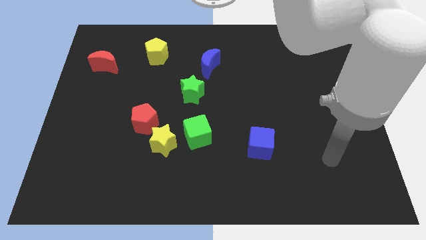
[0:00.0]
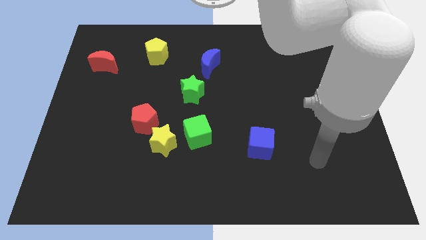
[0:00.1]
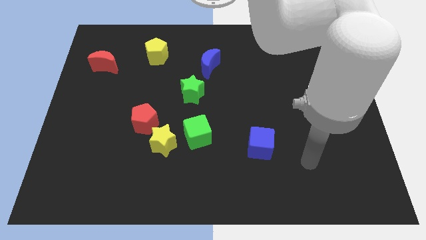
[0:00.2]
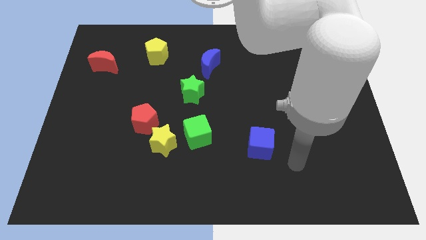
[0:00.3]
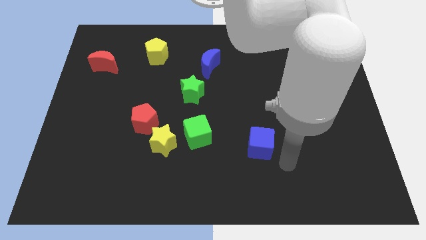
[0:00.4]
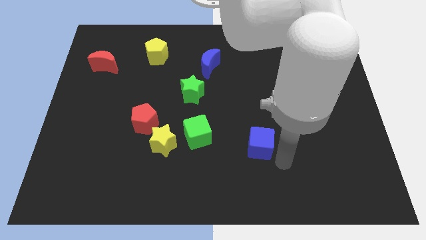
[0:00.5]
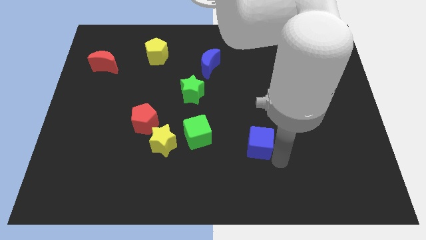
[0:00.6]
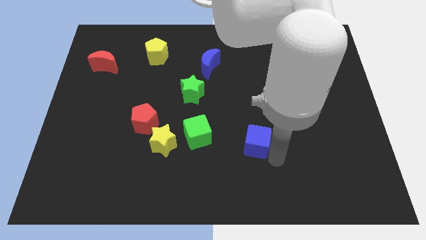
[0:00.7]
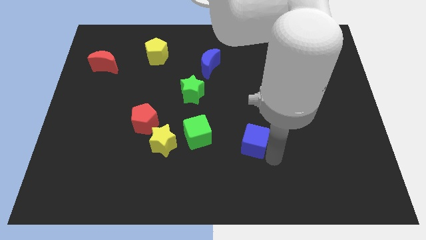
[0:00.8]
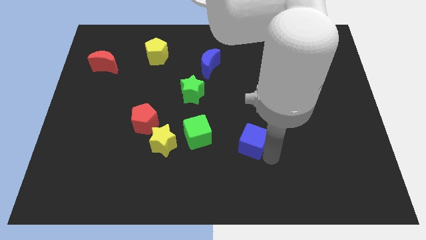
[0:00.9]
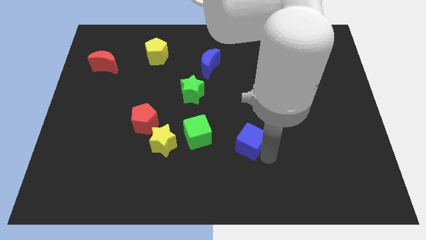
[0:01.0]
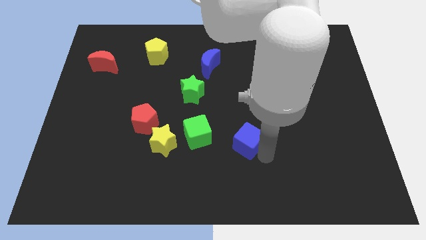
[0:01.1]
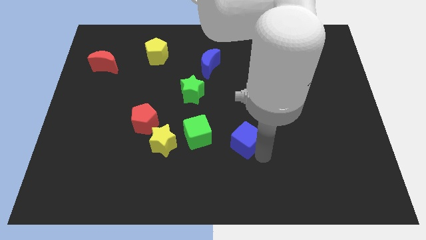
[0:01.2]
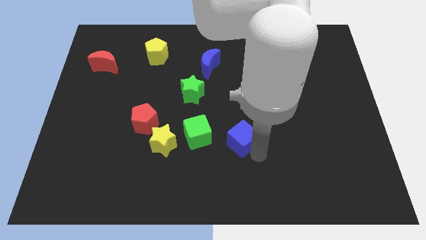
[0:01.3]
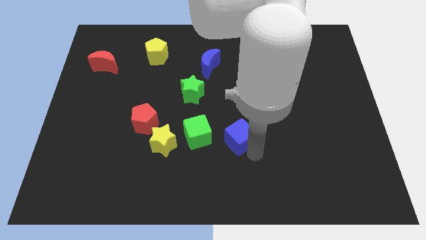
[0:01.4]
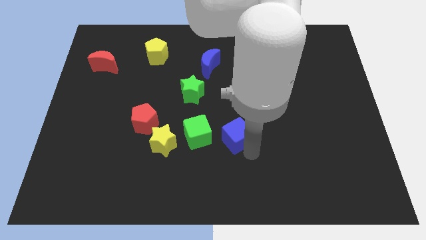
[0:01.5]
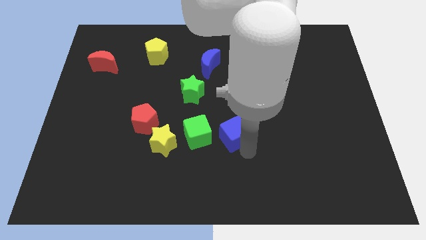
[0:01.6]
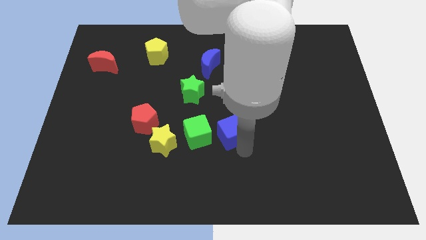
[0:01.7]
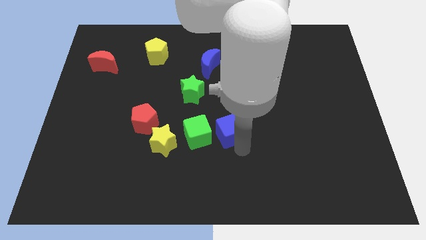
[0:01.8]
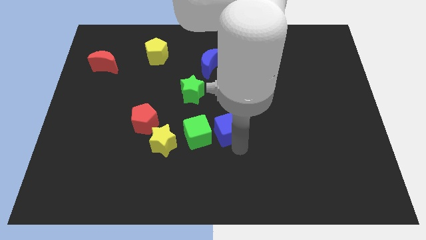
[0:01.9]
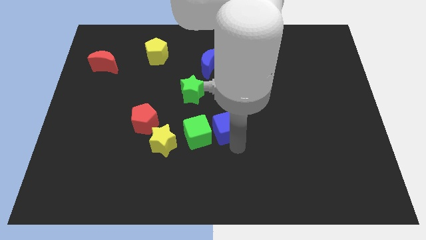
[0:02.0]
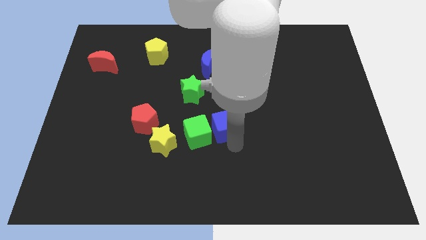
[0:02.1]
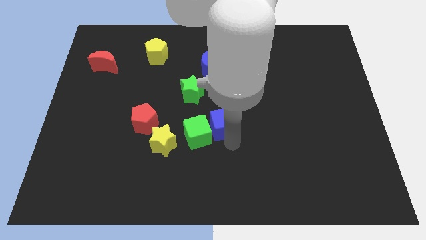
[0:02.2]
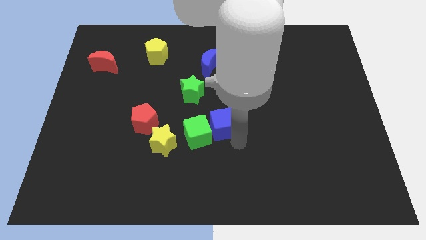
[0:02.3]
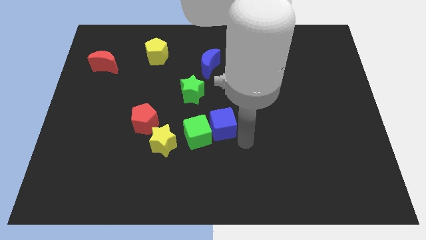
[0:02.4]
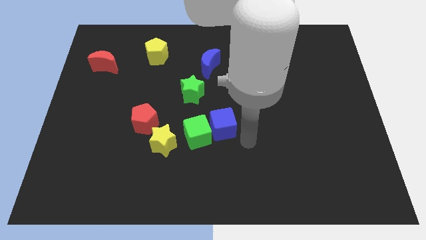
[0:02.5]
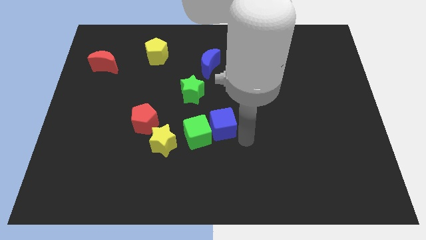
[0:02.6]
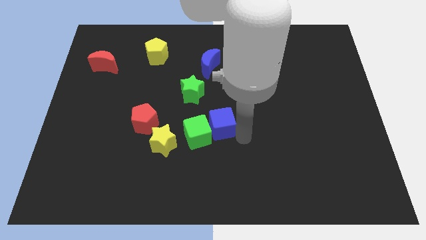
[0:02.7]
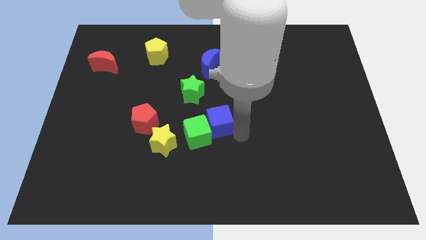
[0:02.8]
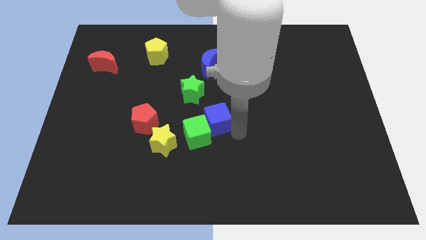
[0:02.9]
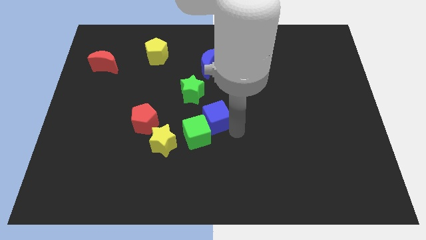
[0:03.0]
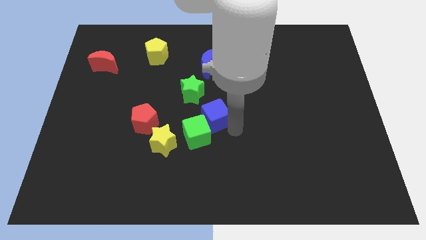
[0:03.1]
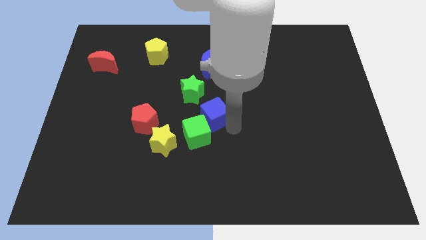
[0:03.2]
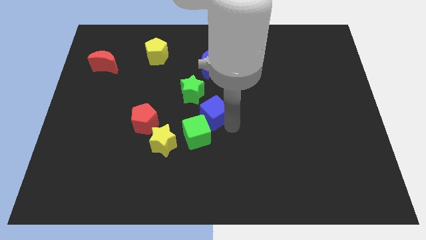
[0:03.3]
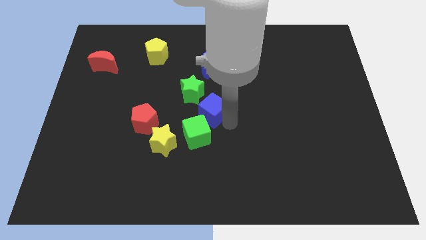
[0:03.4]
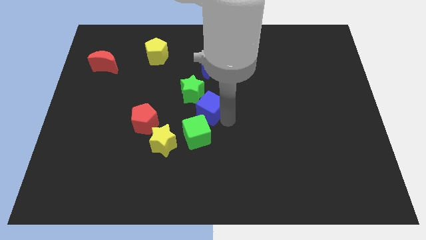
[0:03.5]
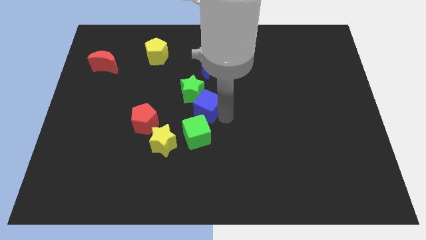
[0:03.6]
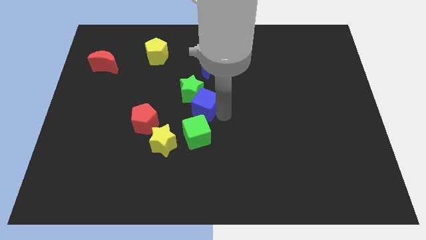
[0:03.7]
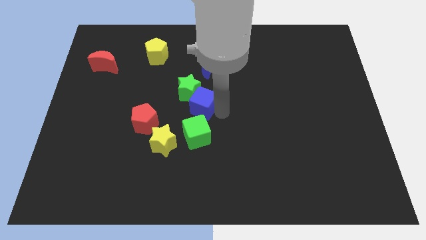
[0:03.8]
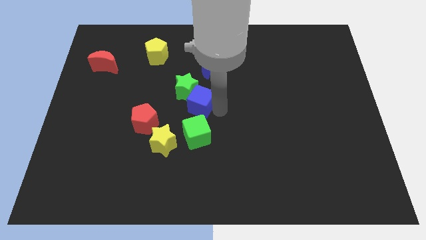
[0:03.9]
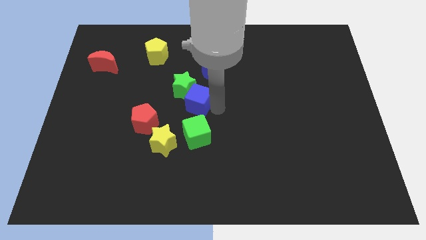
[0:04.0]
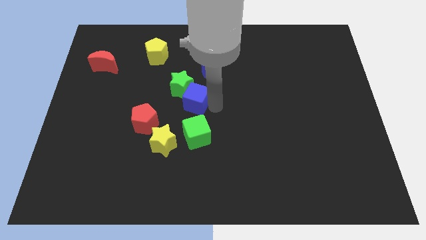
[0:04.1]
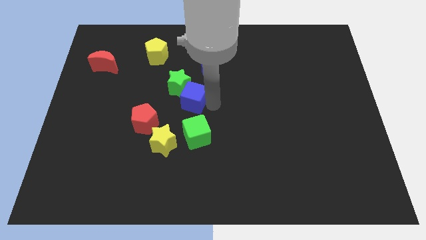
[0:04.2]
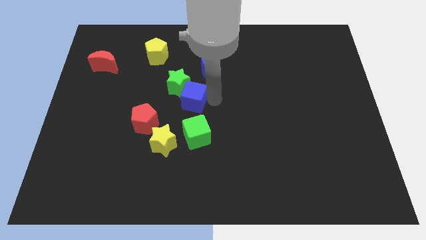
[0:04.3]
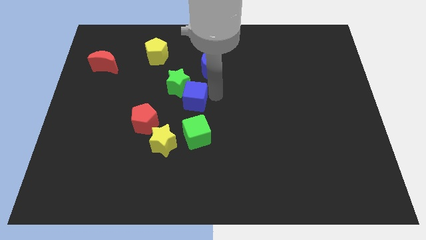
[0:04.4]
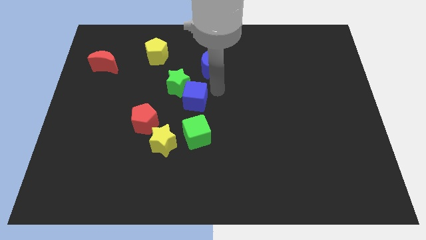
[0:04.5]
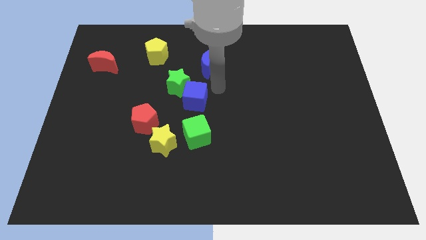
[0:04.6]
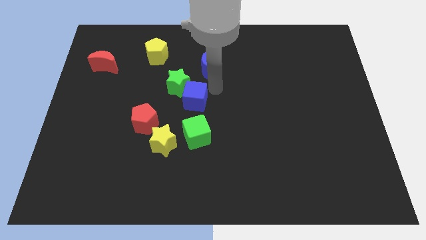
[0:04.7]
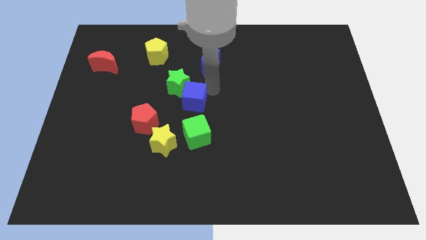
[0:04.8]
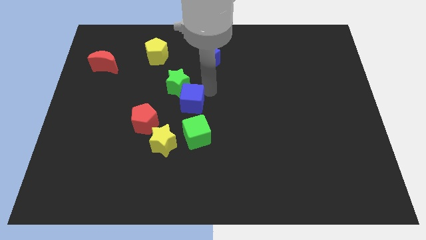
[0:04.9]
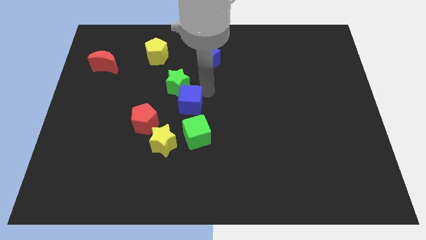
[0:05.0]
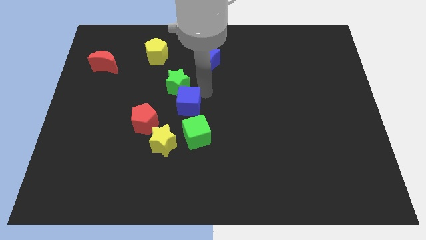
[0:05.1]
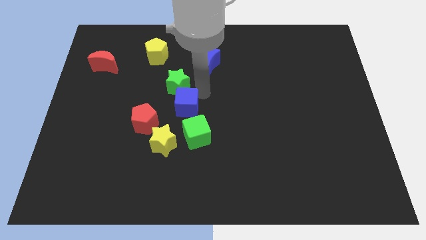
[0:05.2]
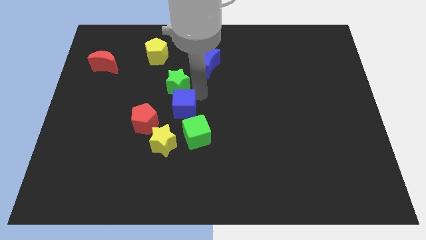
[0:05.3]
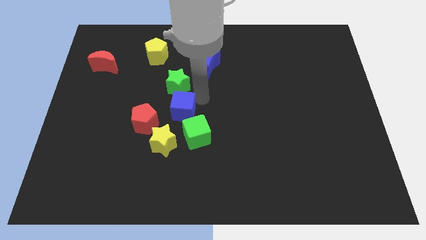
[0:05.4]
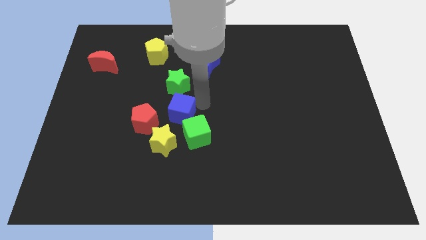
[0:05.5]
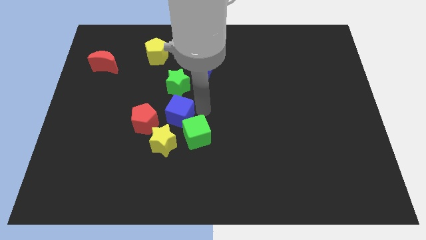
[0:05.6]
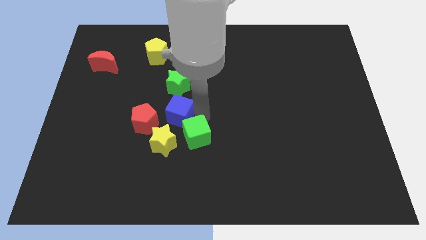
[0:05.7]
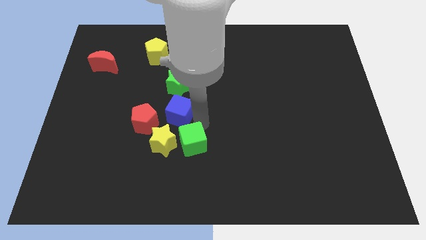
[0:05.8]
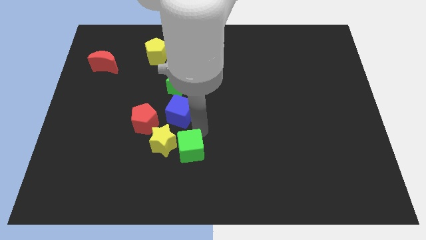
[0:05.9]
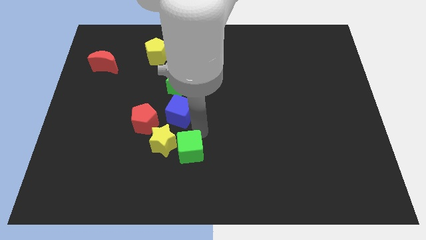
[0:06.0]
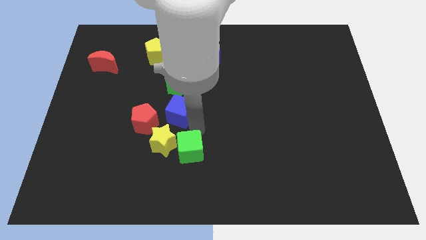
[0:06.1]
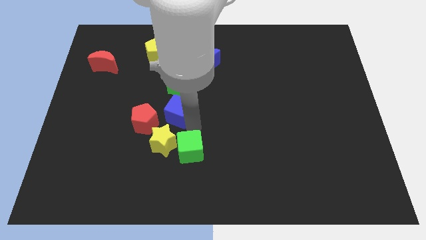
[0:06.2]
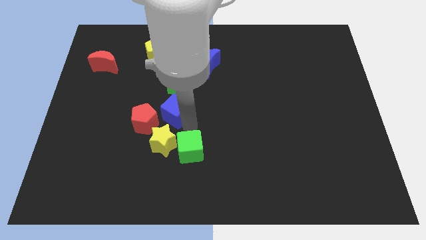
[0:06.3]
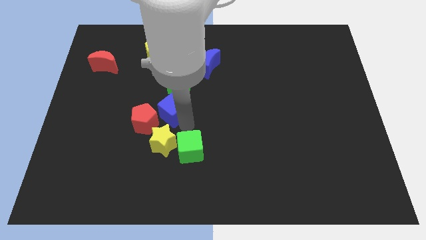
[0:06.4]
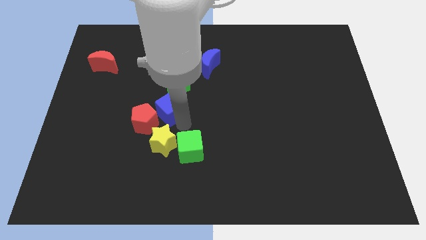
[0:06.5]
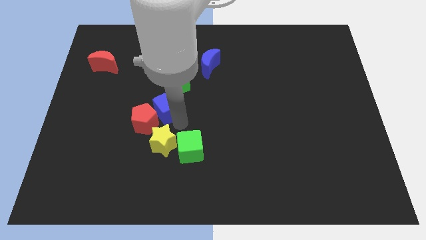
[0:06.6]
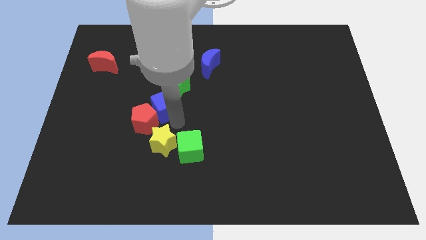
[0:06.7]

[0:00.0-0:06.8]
put the blue cube above the red pentagon
